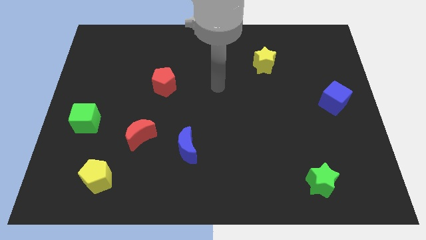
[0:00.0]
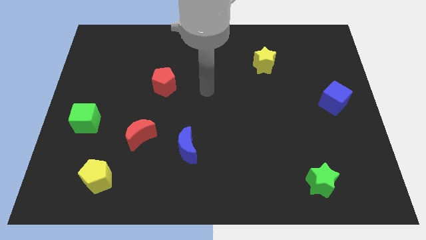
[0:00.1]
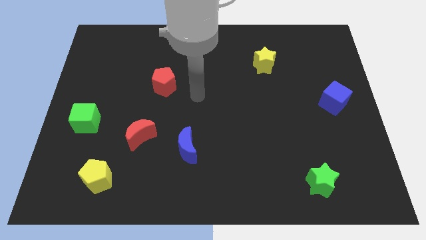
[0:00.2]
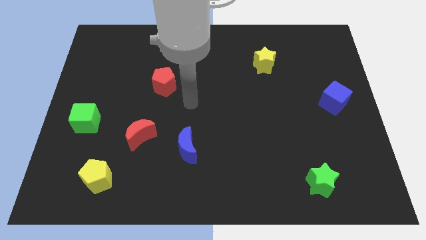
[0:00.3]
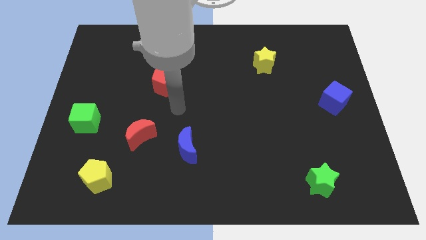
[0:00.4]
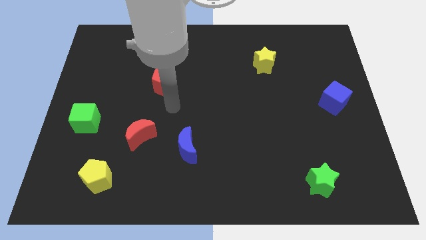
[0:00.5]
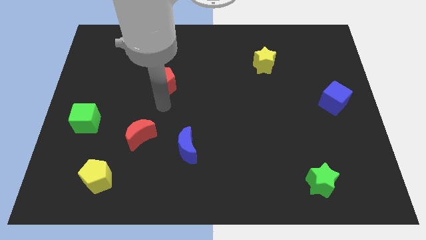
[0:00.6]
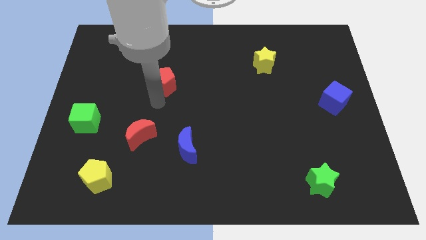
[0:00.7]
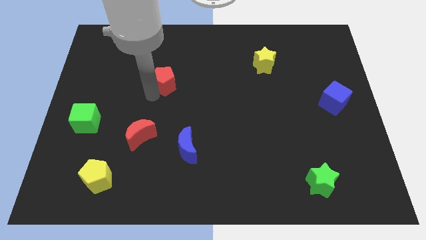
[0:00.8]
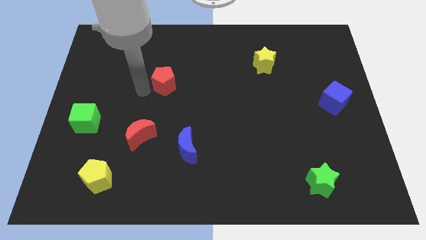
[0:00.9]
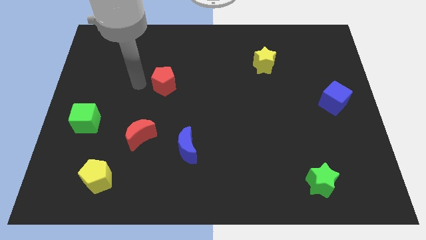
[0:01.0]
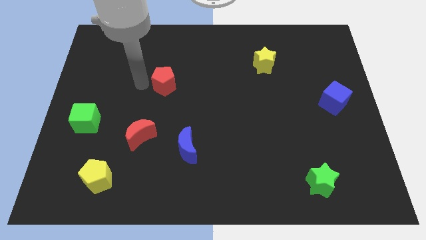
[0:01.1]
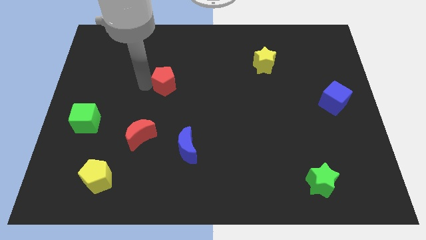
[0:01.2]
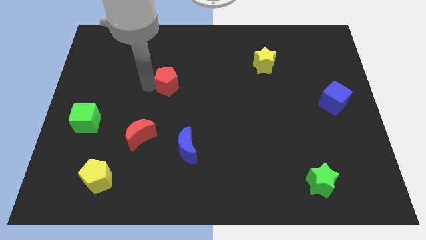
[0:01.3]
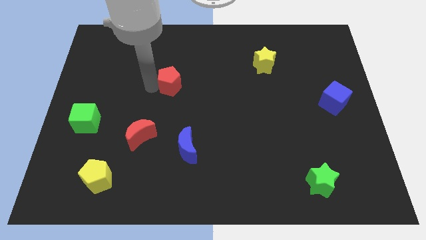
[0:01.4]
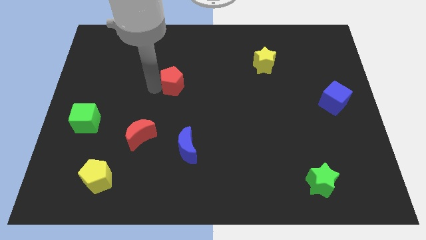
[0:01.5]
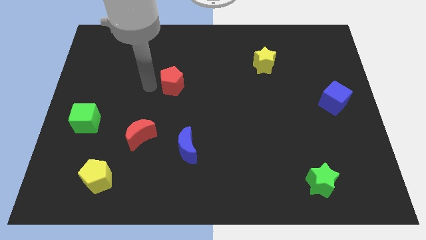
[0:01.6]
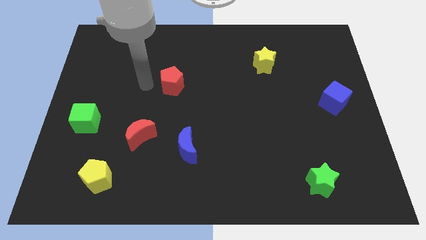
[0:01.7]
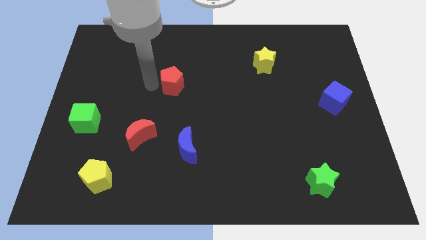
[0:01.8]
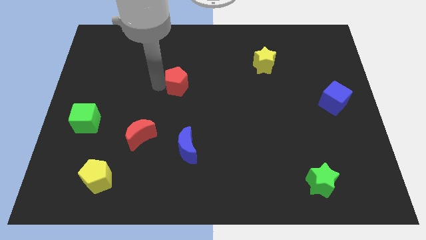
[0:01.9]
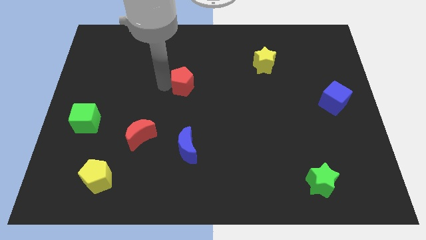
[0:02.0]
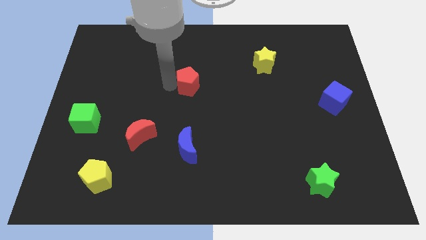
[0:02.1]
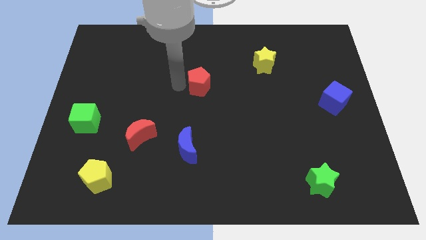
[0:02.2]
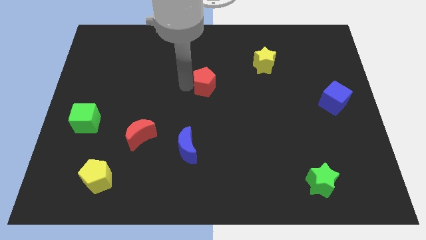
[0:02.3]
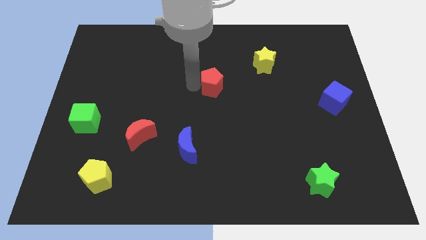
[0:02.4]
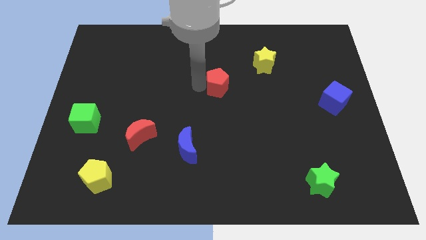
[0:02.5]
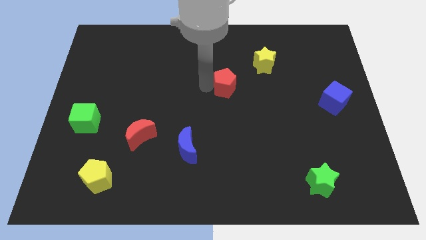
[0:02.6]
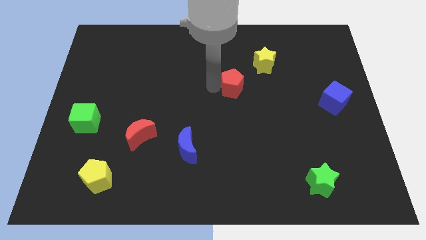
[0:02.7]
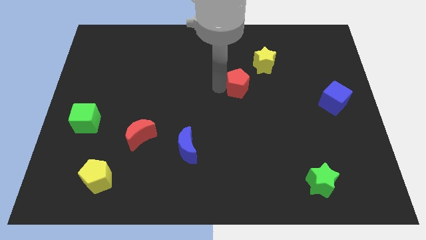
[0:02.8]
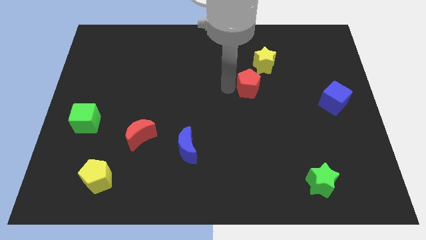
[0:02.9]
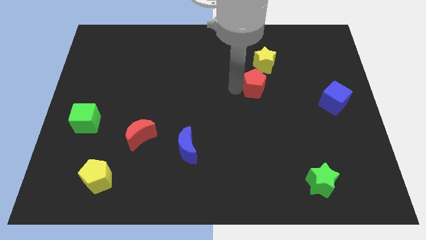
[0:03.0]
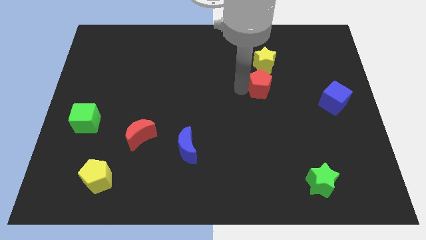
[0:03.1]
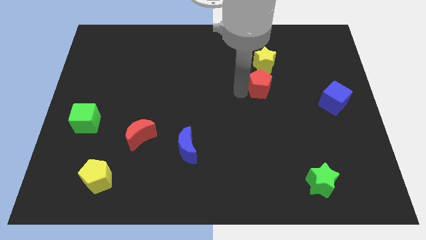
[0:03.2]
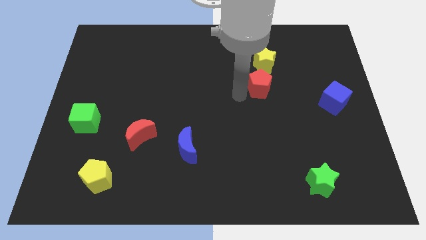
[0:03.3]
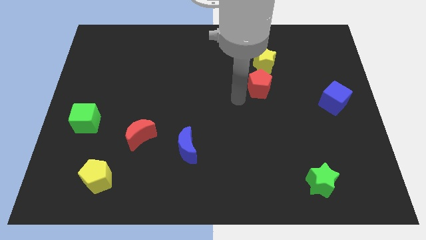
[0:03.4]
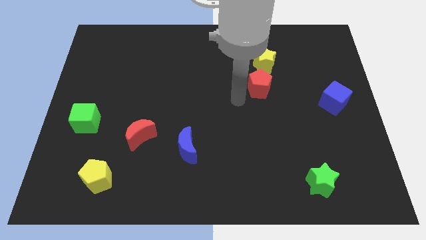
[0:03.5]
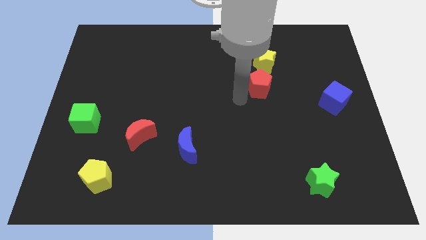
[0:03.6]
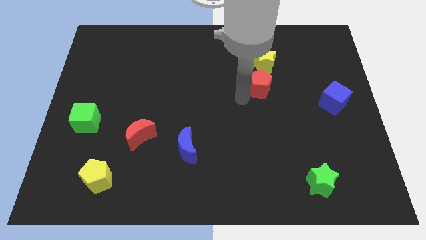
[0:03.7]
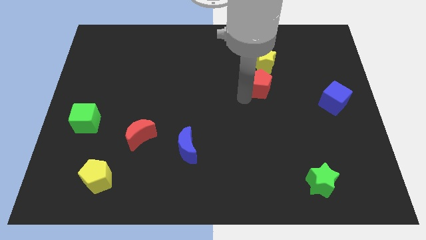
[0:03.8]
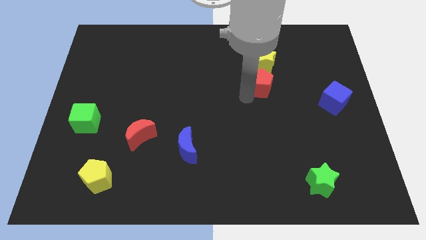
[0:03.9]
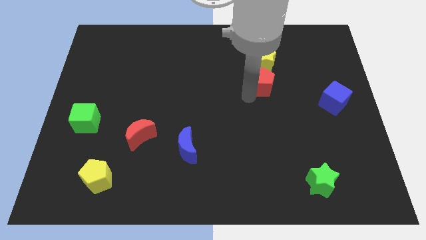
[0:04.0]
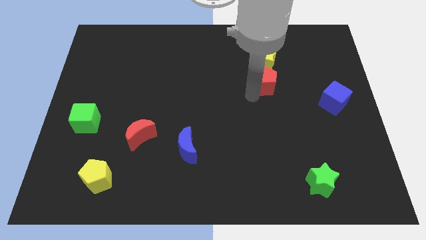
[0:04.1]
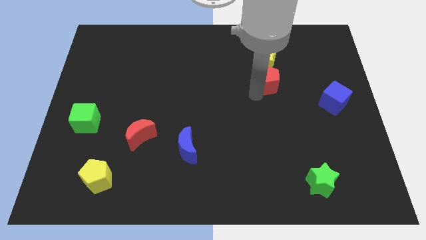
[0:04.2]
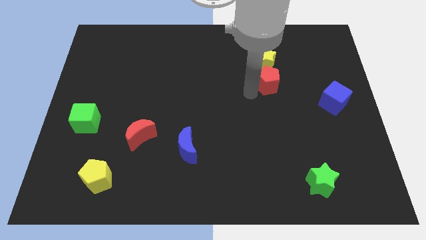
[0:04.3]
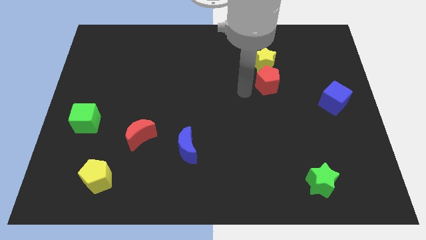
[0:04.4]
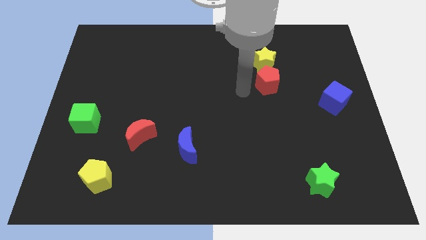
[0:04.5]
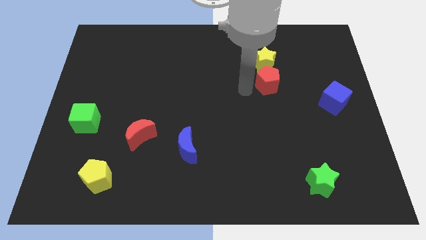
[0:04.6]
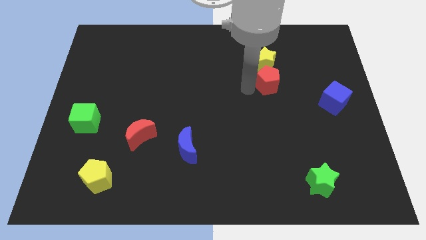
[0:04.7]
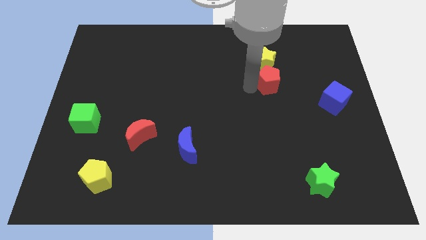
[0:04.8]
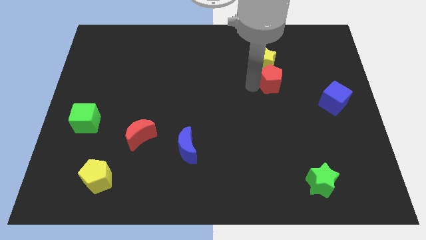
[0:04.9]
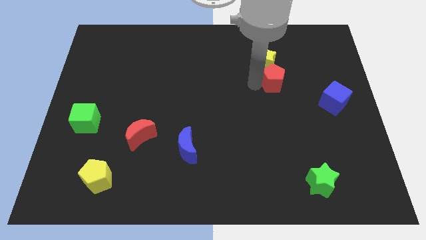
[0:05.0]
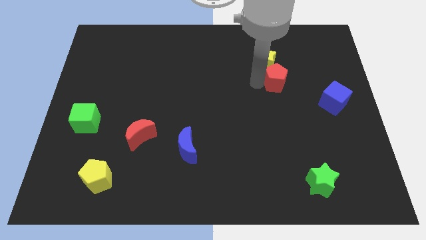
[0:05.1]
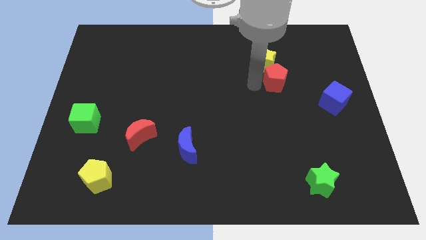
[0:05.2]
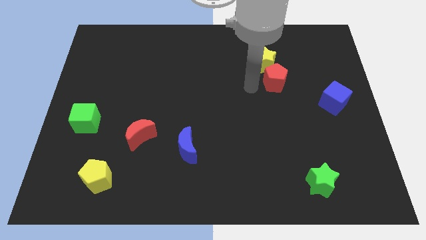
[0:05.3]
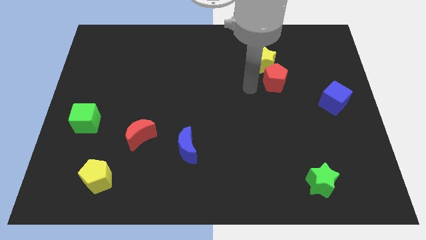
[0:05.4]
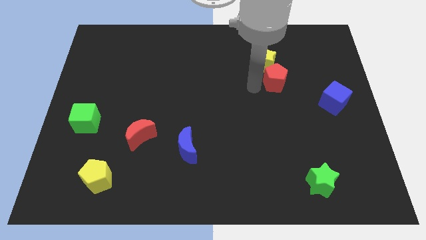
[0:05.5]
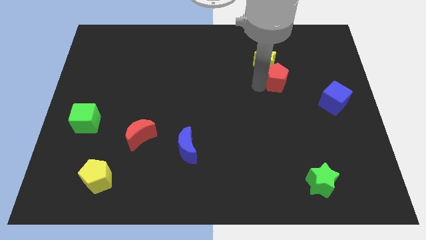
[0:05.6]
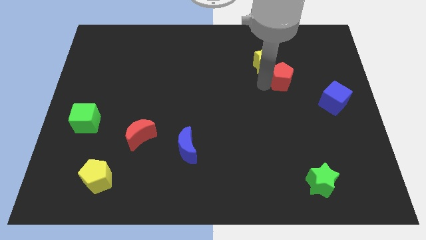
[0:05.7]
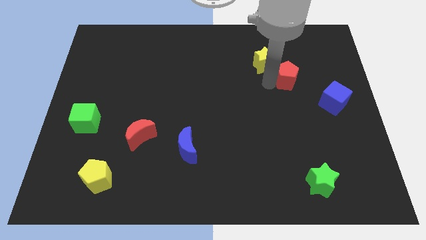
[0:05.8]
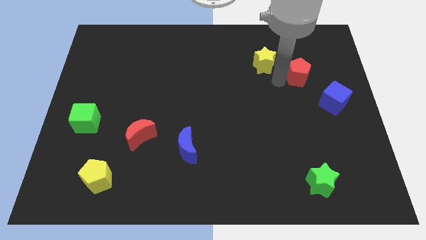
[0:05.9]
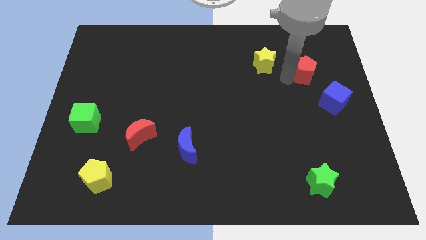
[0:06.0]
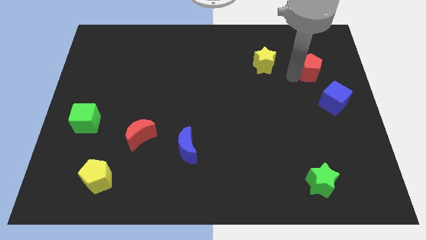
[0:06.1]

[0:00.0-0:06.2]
push the red pentagon to the top of the blue cube
